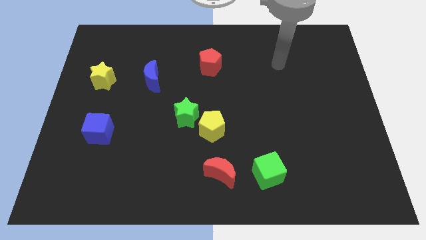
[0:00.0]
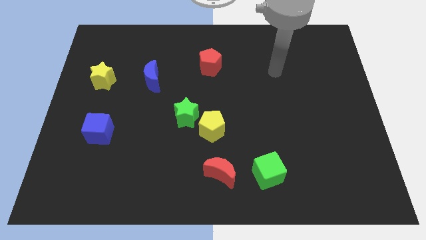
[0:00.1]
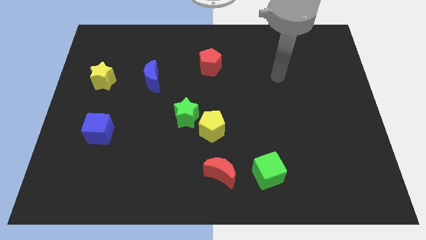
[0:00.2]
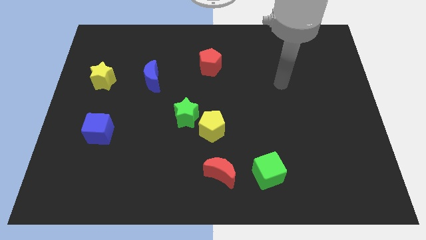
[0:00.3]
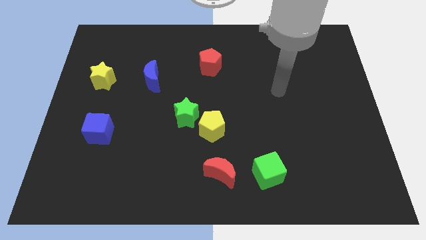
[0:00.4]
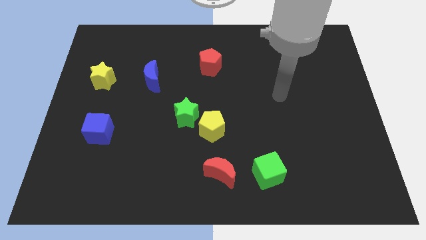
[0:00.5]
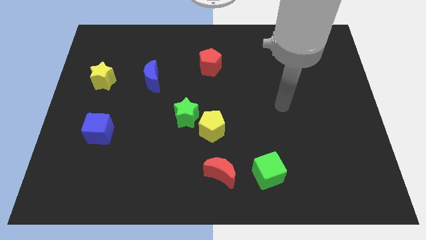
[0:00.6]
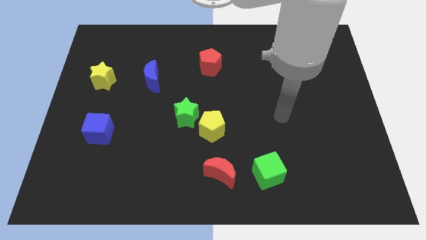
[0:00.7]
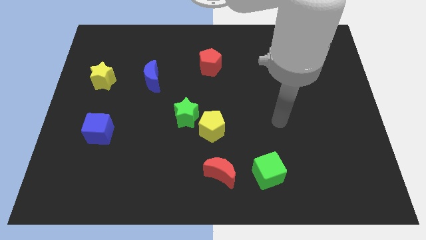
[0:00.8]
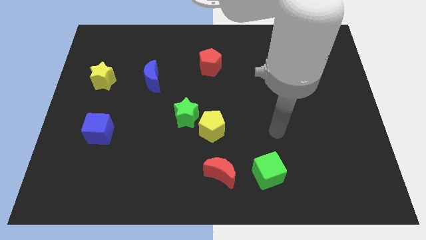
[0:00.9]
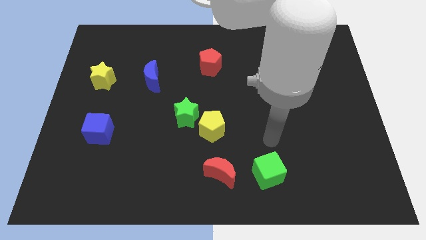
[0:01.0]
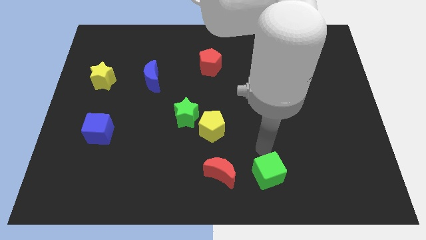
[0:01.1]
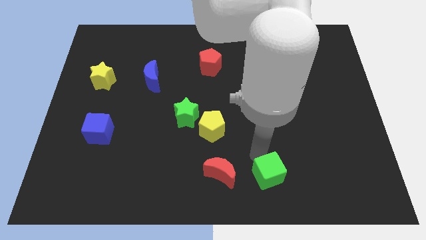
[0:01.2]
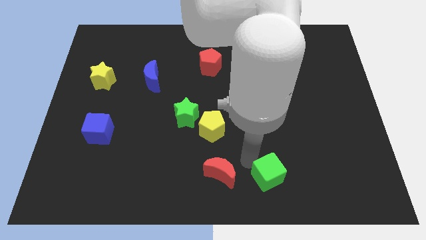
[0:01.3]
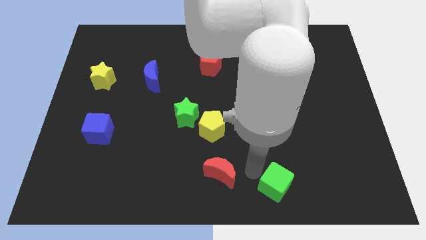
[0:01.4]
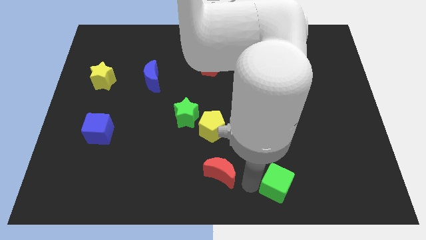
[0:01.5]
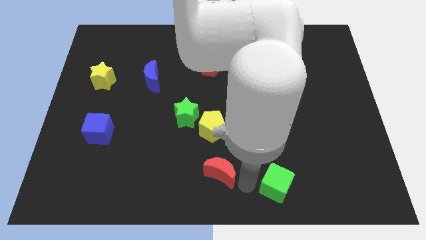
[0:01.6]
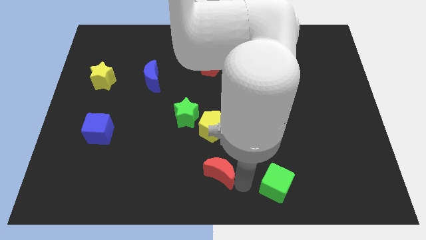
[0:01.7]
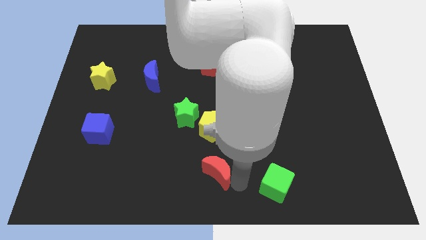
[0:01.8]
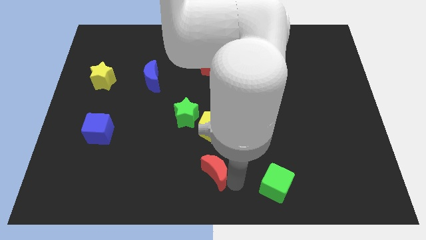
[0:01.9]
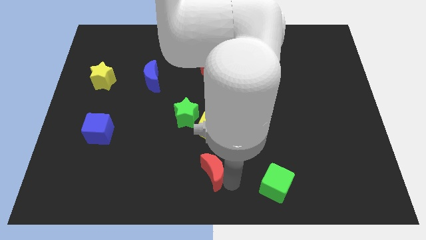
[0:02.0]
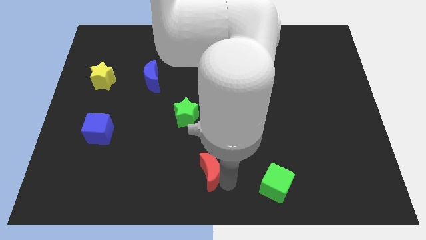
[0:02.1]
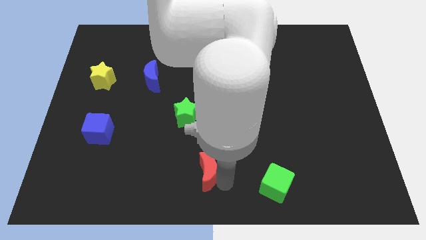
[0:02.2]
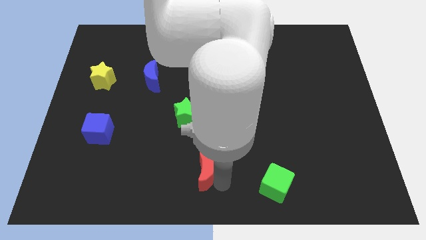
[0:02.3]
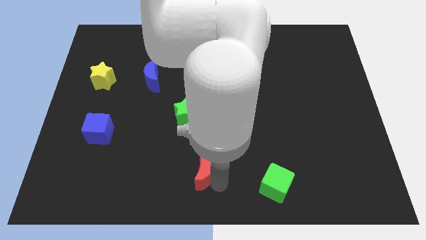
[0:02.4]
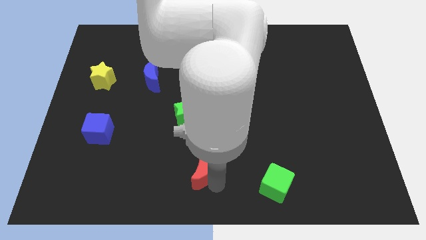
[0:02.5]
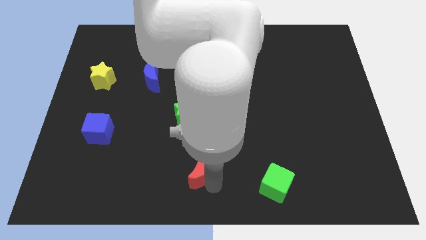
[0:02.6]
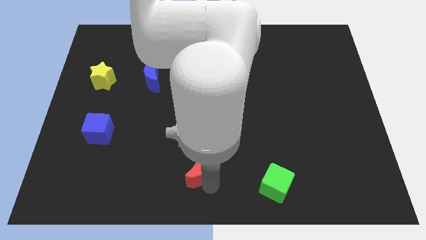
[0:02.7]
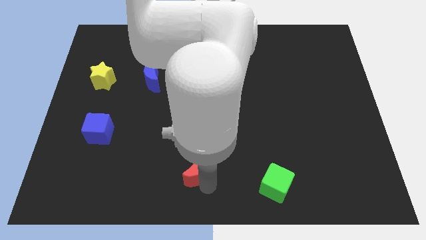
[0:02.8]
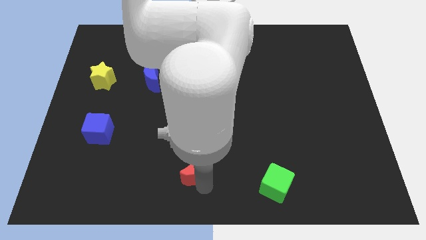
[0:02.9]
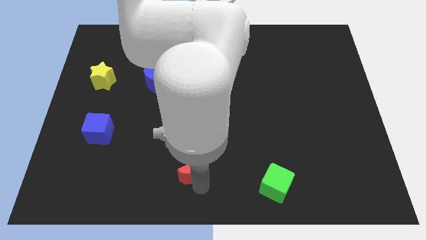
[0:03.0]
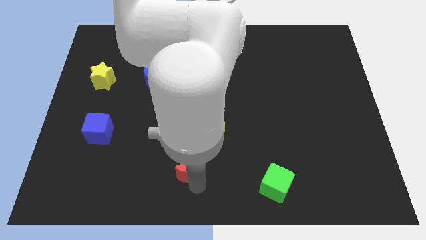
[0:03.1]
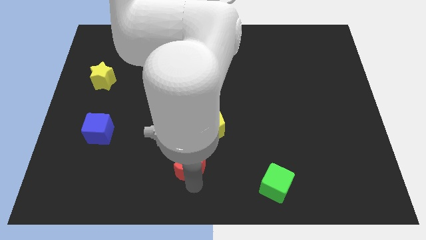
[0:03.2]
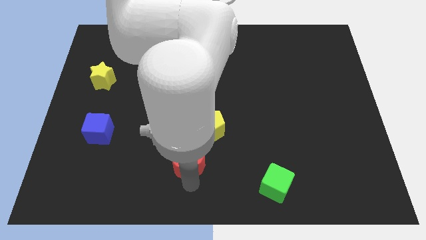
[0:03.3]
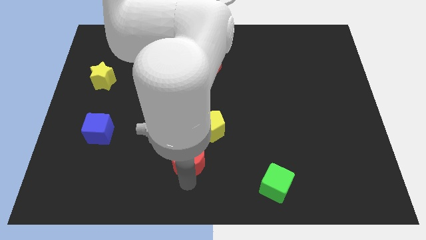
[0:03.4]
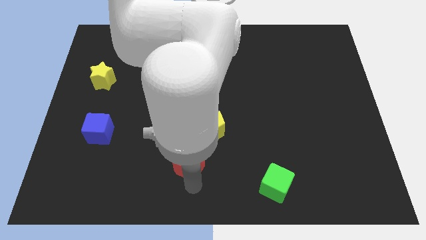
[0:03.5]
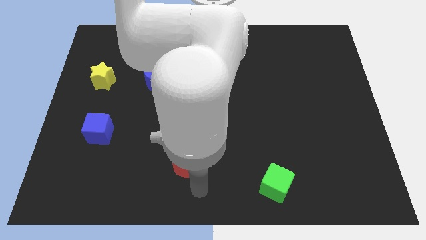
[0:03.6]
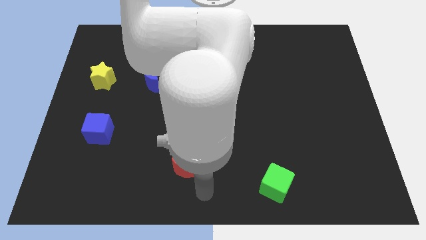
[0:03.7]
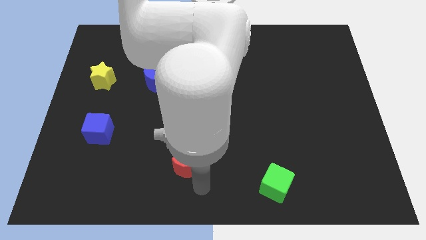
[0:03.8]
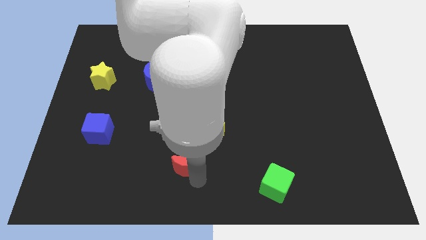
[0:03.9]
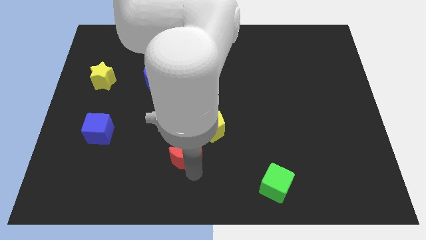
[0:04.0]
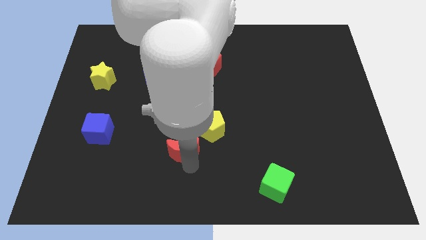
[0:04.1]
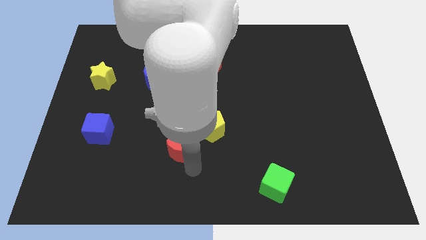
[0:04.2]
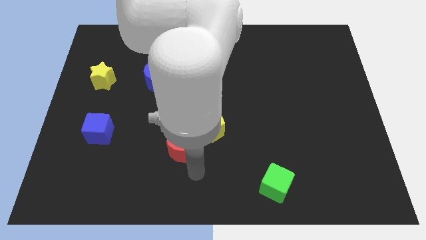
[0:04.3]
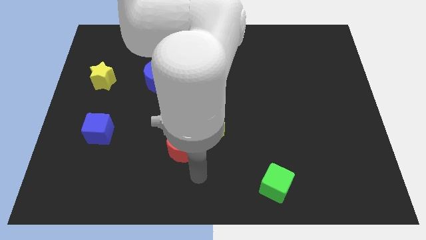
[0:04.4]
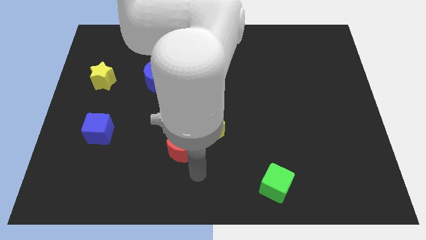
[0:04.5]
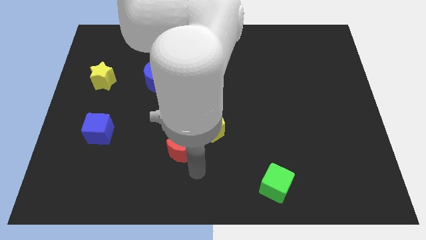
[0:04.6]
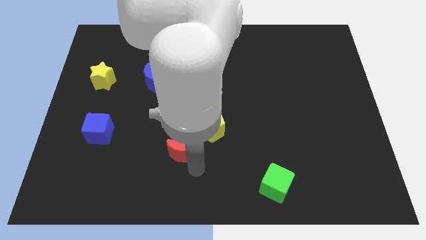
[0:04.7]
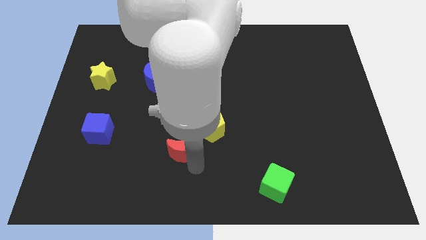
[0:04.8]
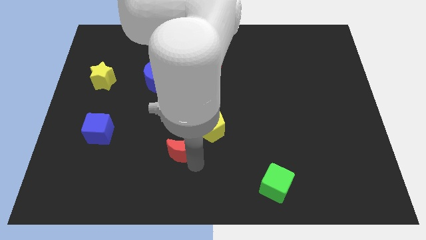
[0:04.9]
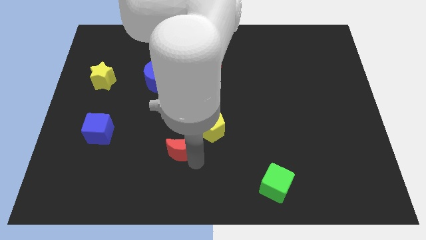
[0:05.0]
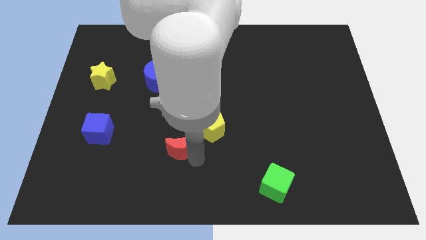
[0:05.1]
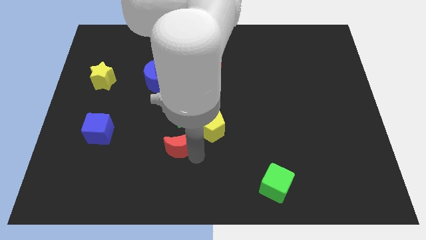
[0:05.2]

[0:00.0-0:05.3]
push the red moon left of the yellow pentagon
